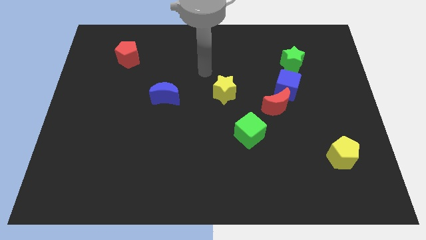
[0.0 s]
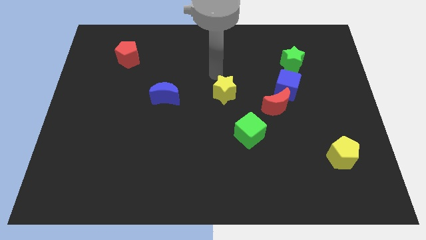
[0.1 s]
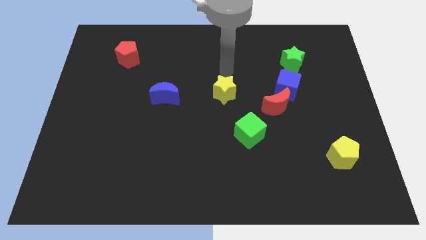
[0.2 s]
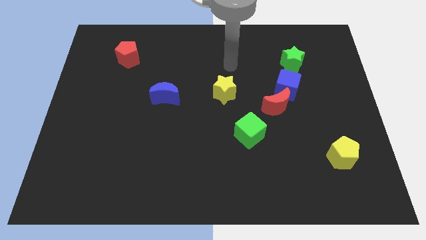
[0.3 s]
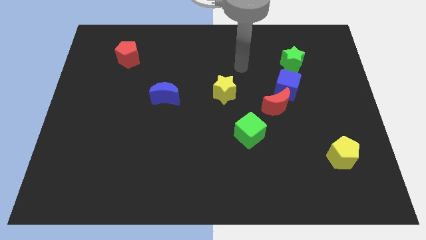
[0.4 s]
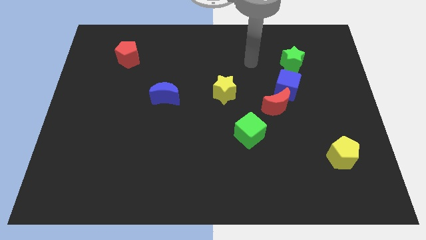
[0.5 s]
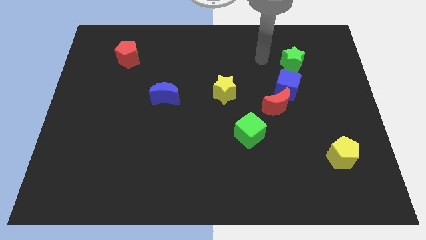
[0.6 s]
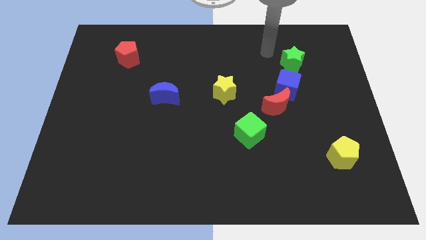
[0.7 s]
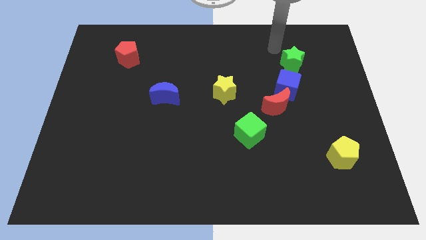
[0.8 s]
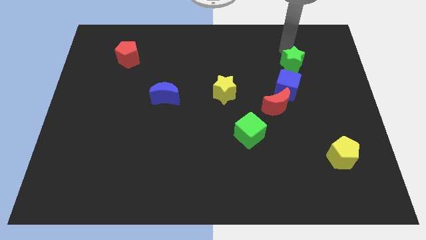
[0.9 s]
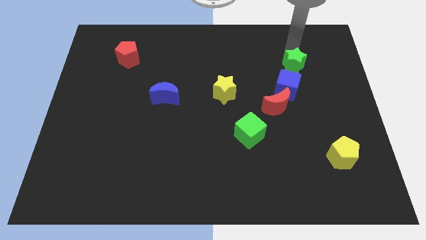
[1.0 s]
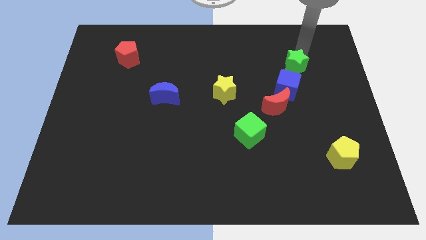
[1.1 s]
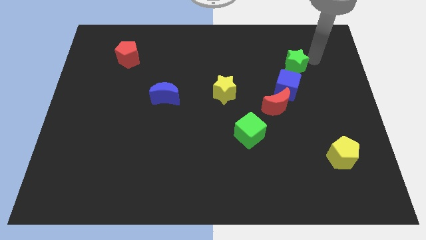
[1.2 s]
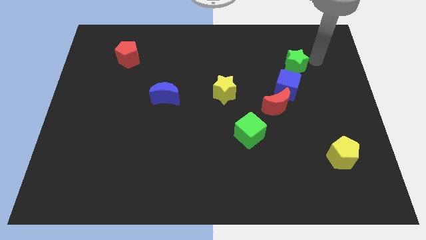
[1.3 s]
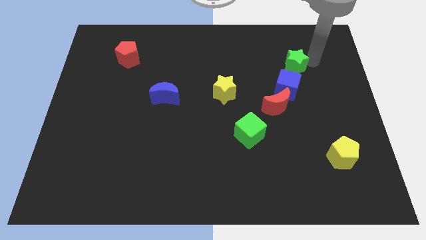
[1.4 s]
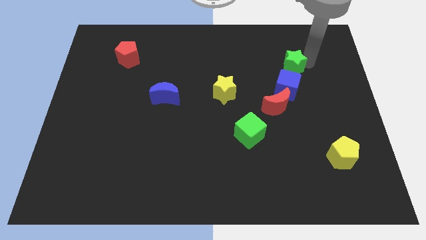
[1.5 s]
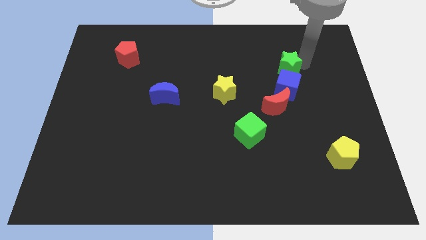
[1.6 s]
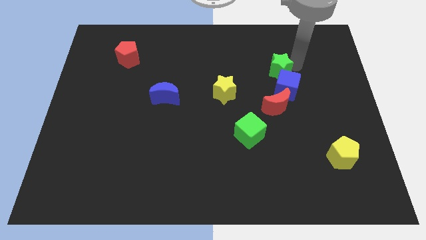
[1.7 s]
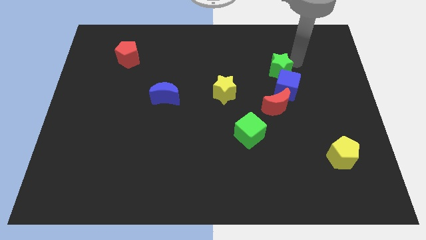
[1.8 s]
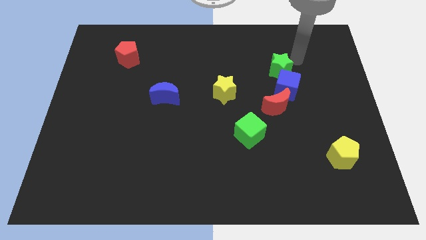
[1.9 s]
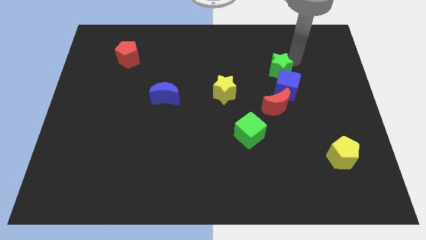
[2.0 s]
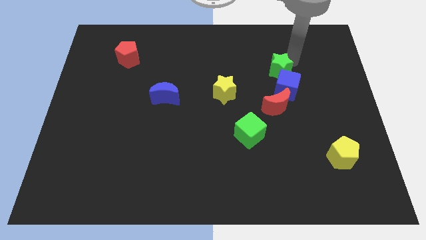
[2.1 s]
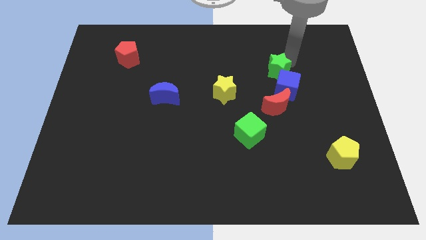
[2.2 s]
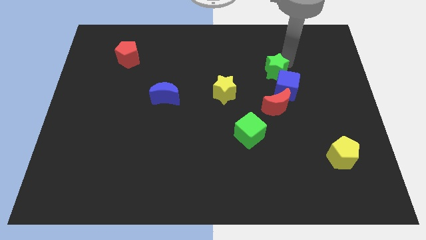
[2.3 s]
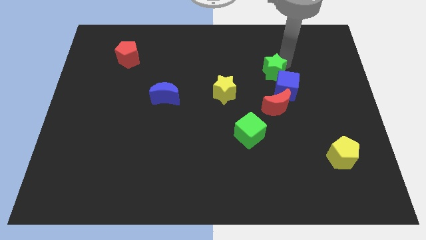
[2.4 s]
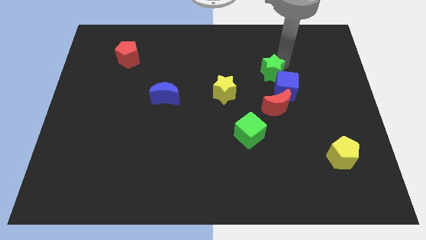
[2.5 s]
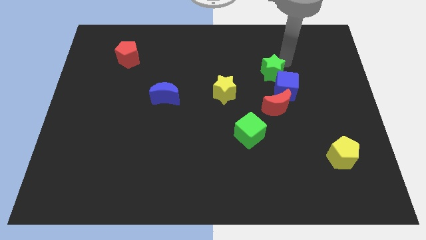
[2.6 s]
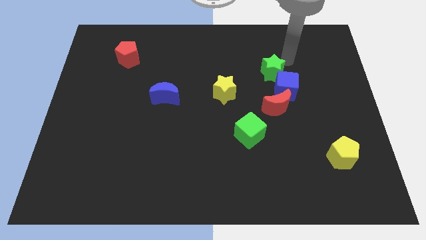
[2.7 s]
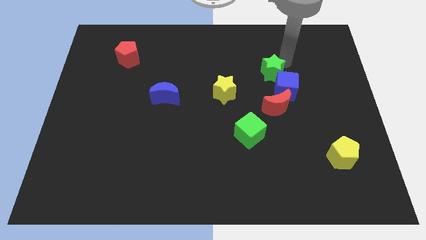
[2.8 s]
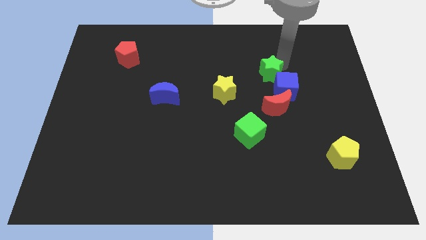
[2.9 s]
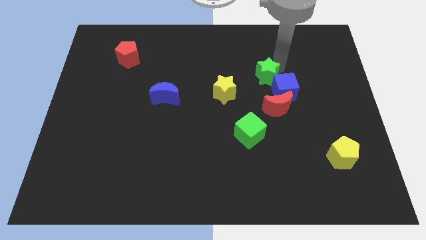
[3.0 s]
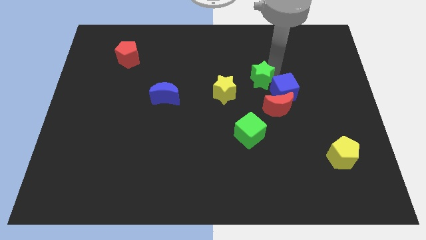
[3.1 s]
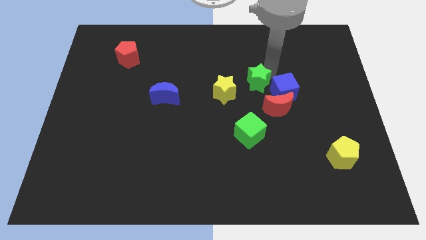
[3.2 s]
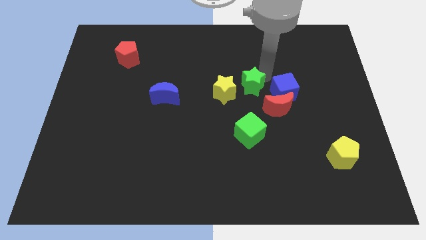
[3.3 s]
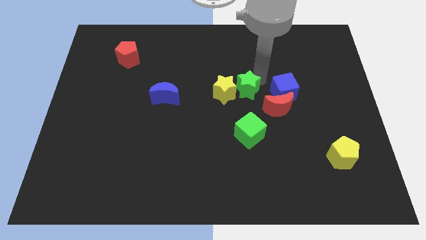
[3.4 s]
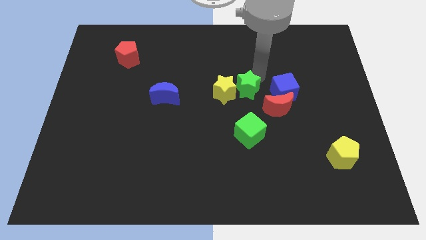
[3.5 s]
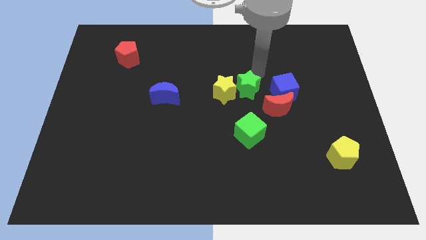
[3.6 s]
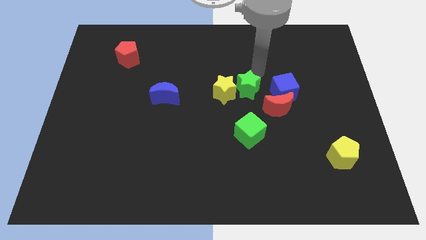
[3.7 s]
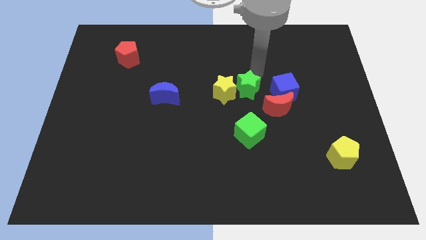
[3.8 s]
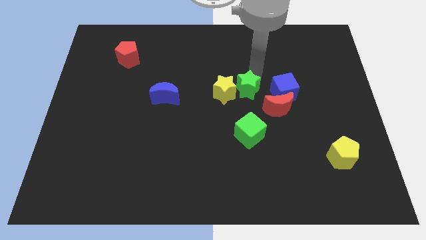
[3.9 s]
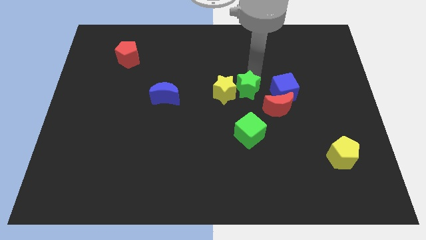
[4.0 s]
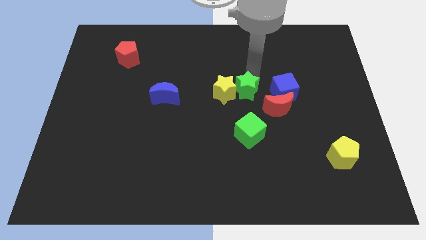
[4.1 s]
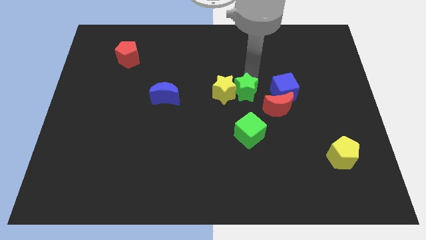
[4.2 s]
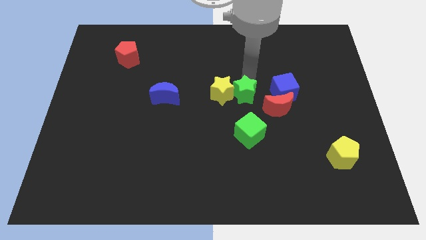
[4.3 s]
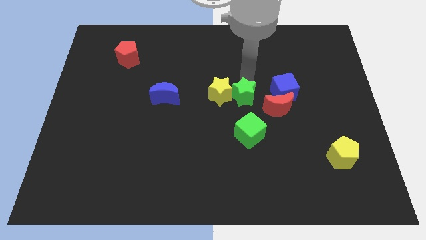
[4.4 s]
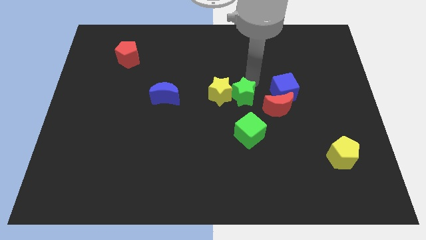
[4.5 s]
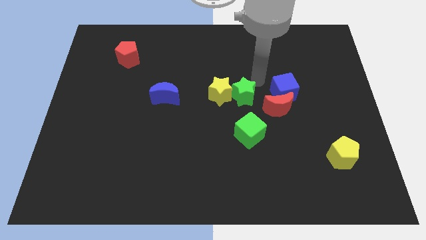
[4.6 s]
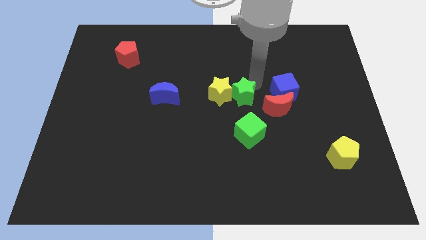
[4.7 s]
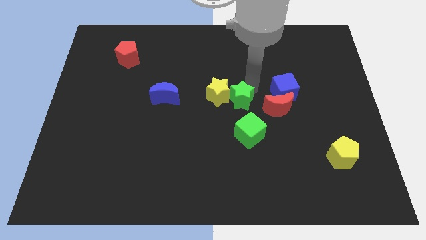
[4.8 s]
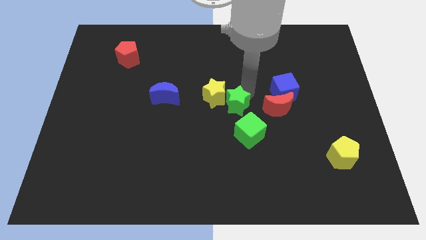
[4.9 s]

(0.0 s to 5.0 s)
move the green star to the top left of the green cube

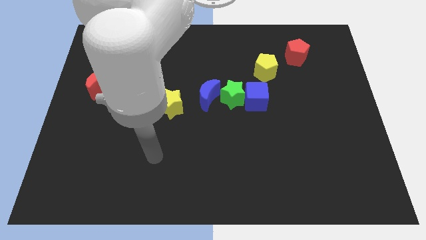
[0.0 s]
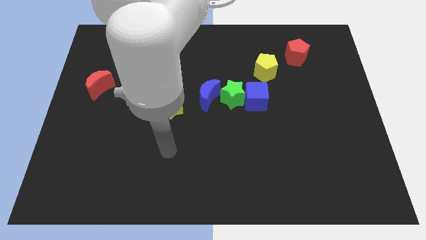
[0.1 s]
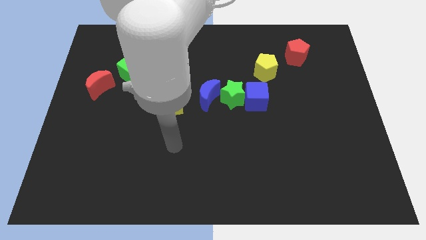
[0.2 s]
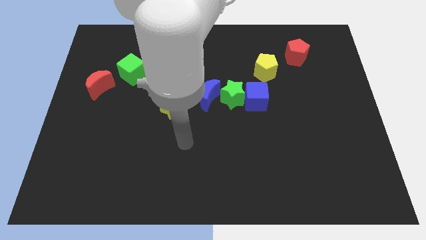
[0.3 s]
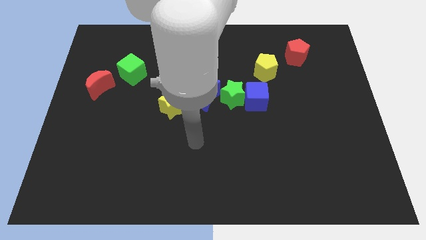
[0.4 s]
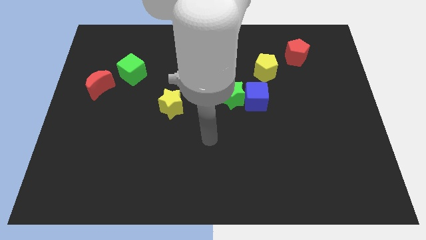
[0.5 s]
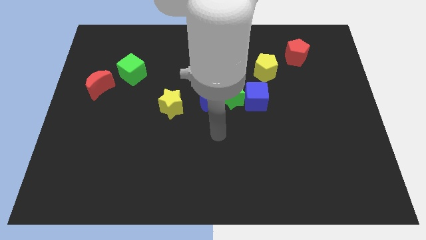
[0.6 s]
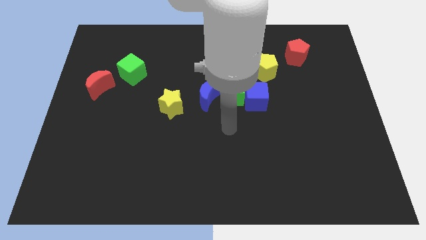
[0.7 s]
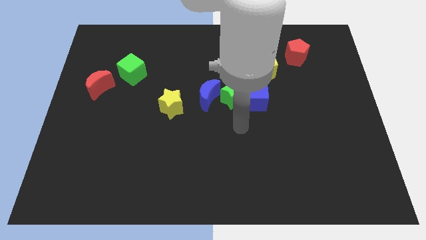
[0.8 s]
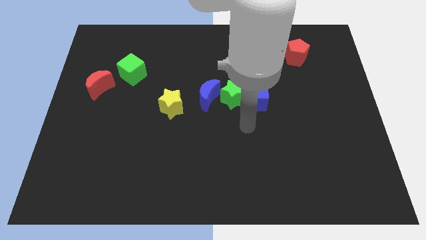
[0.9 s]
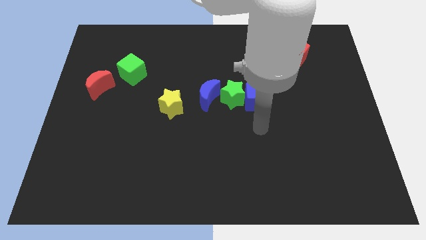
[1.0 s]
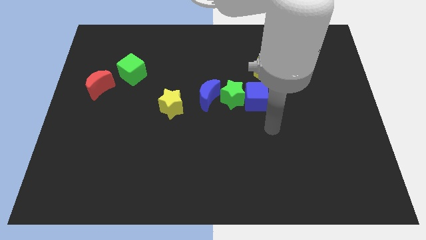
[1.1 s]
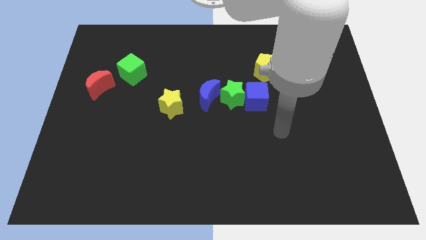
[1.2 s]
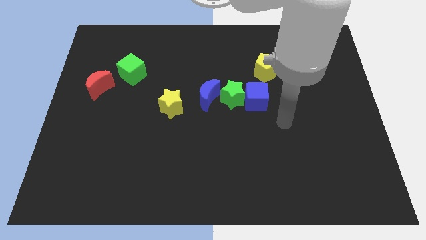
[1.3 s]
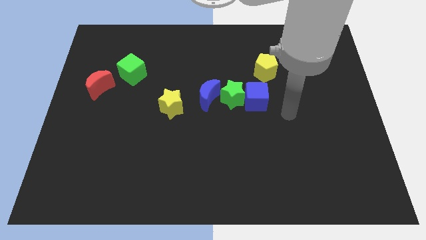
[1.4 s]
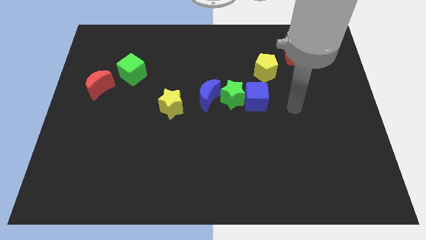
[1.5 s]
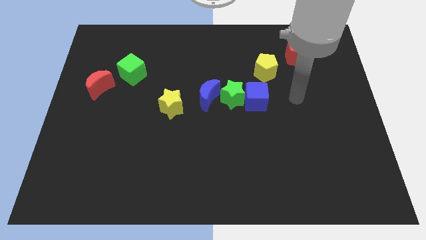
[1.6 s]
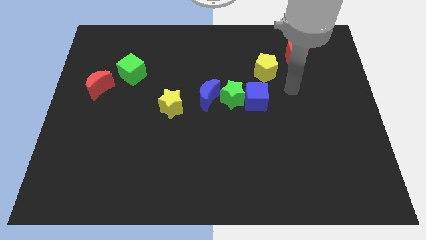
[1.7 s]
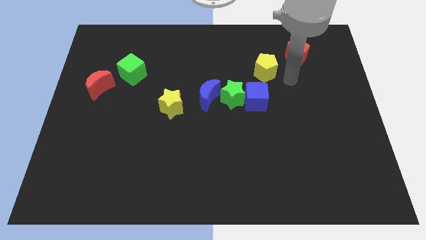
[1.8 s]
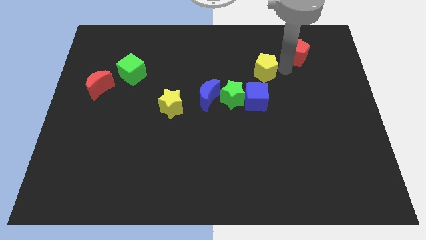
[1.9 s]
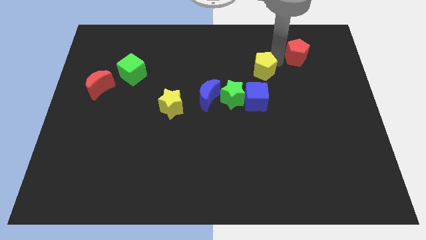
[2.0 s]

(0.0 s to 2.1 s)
slide the red pentagon just right of the yellow pentagon

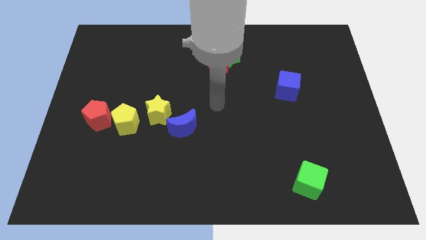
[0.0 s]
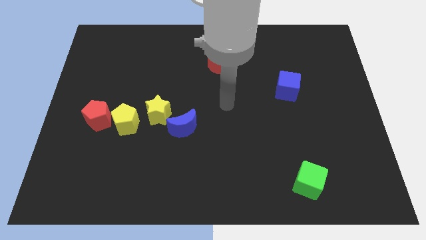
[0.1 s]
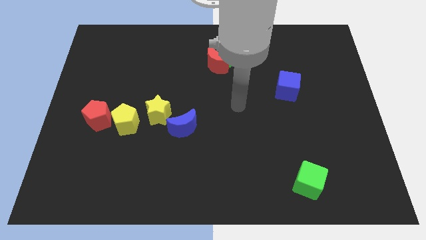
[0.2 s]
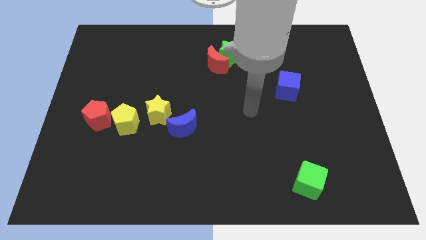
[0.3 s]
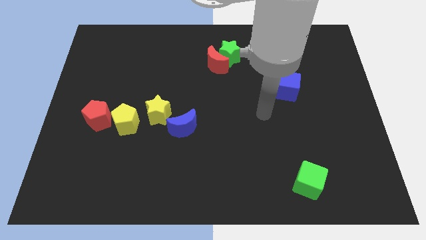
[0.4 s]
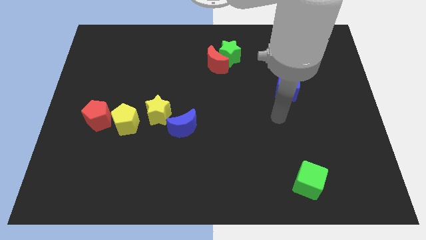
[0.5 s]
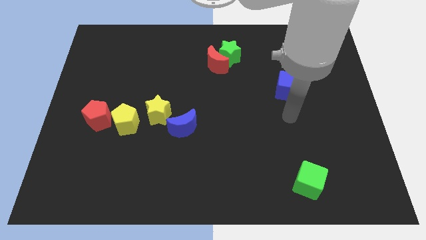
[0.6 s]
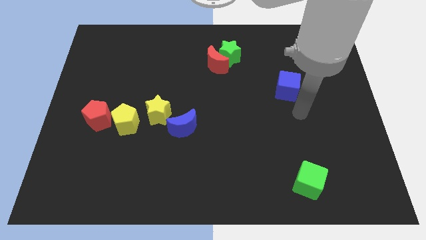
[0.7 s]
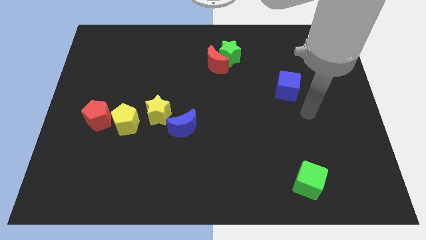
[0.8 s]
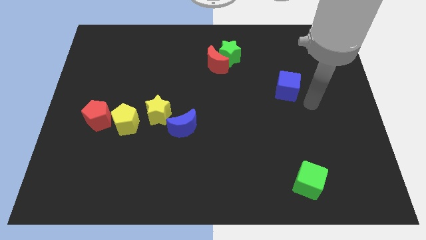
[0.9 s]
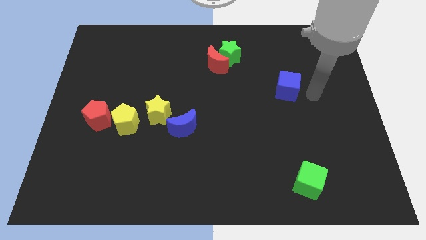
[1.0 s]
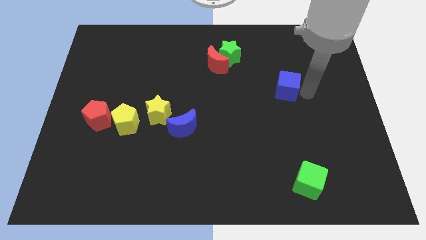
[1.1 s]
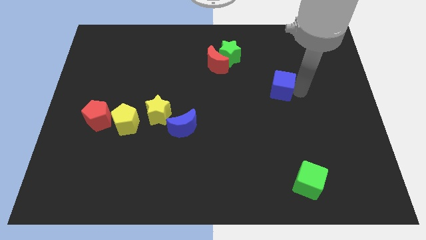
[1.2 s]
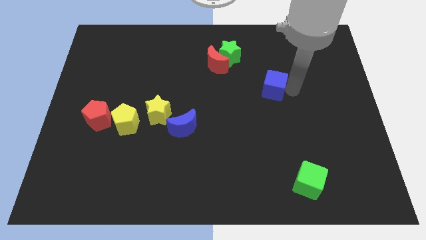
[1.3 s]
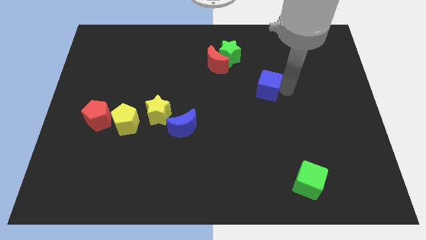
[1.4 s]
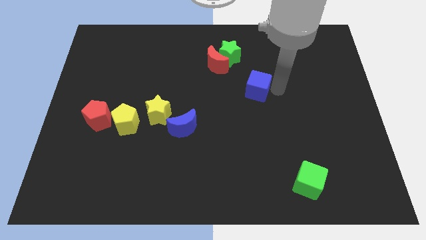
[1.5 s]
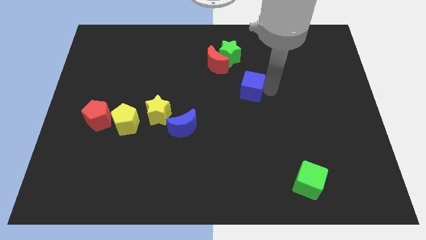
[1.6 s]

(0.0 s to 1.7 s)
move the blue cube to the bottom right of the red moon

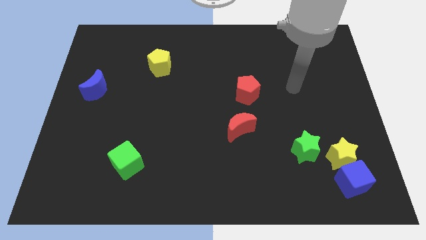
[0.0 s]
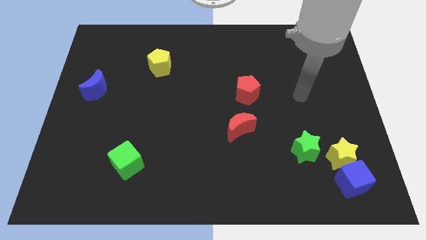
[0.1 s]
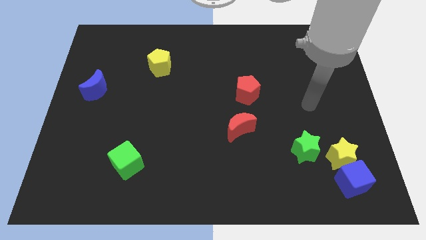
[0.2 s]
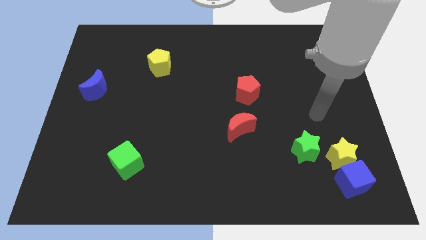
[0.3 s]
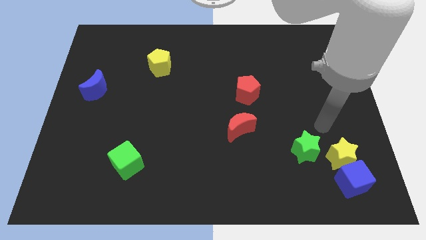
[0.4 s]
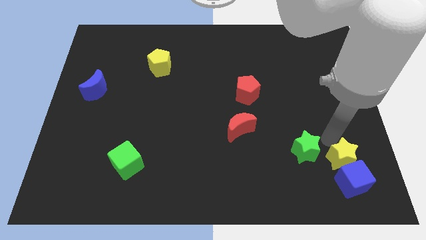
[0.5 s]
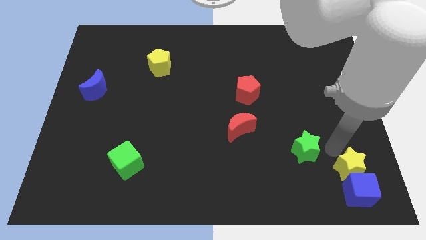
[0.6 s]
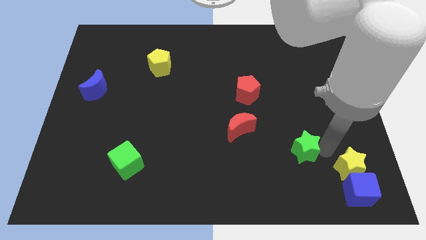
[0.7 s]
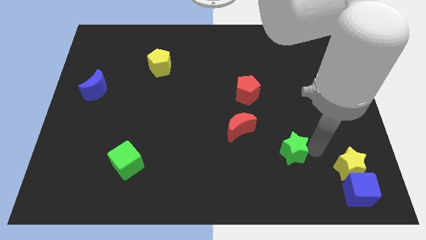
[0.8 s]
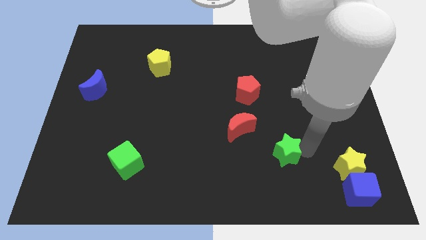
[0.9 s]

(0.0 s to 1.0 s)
push the green star diagonally down and to the right of the red moon
